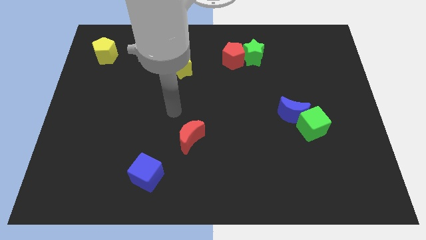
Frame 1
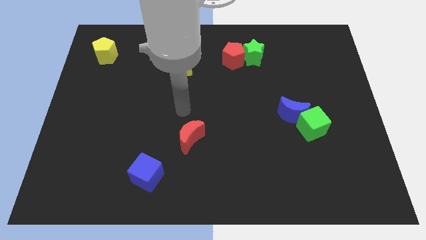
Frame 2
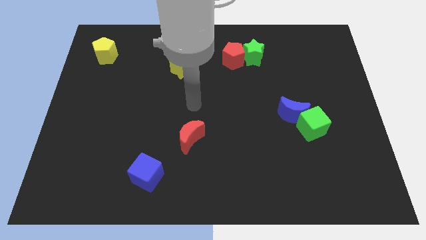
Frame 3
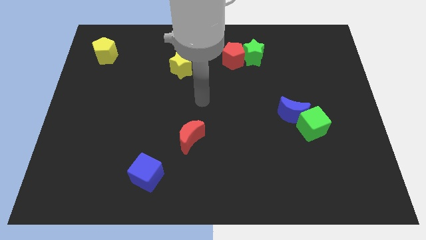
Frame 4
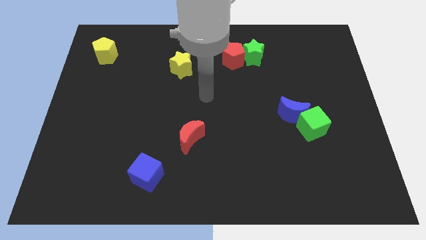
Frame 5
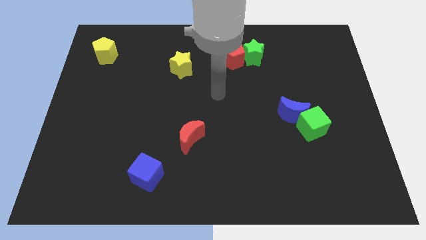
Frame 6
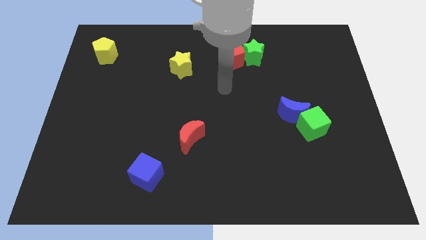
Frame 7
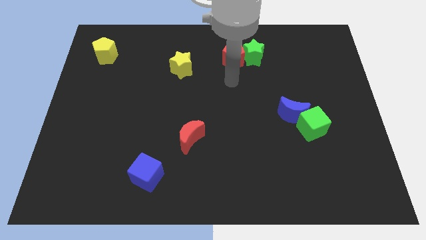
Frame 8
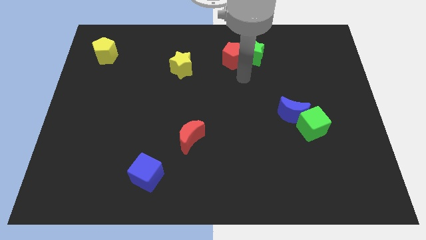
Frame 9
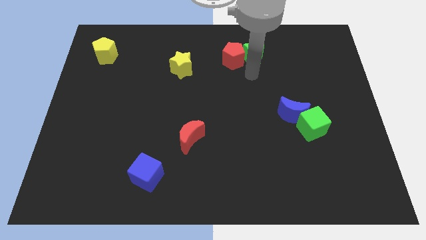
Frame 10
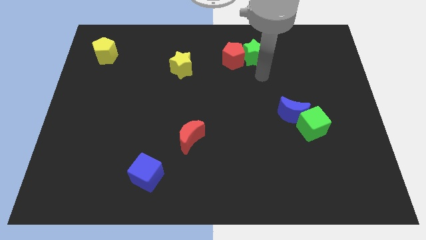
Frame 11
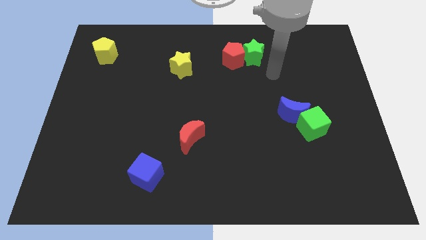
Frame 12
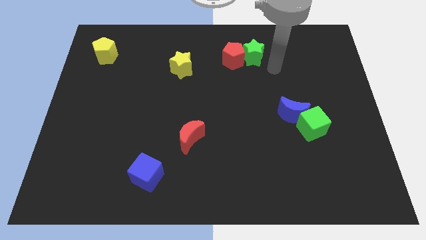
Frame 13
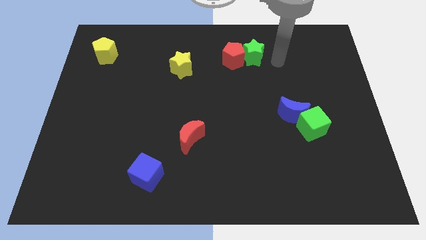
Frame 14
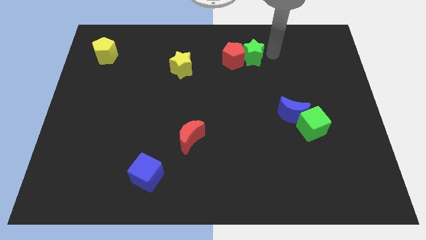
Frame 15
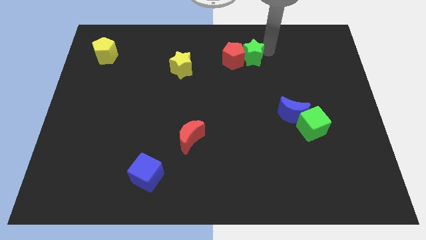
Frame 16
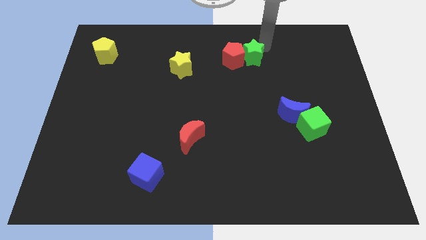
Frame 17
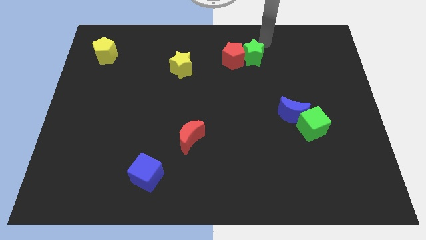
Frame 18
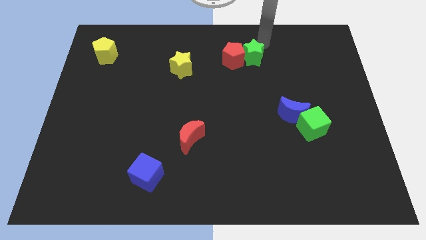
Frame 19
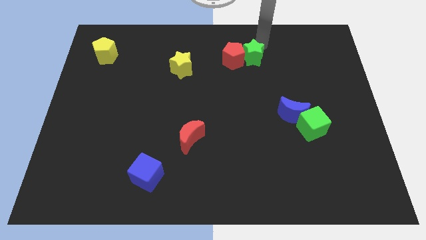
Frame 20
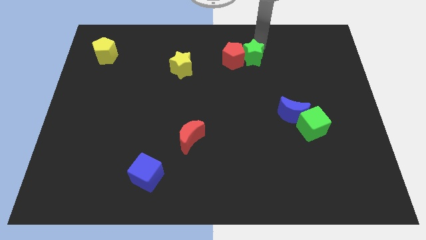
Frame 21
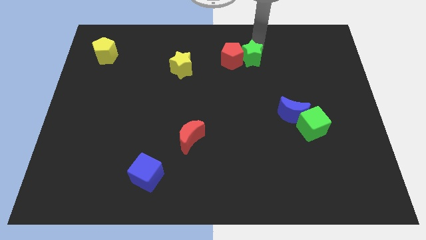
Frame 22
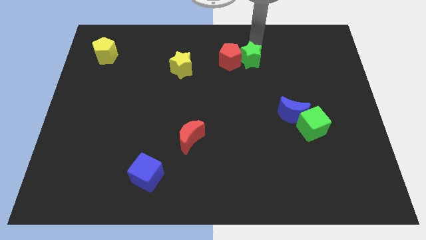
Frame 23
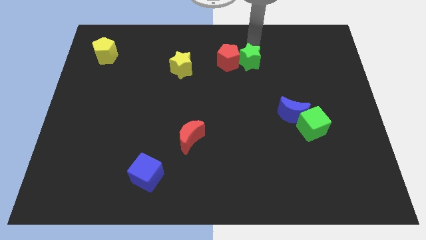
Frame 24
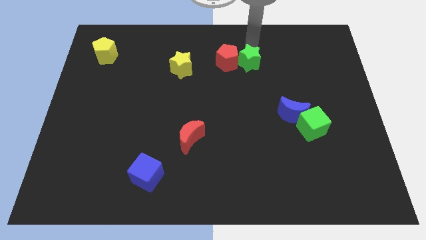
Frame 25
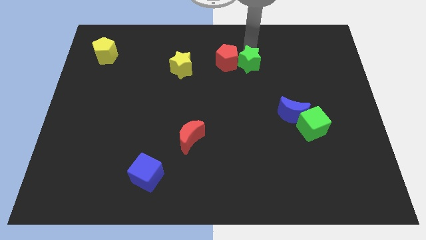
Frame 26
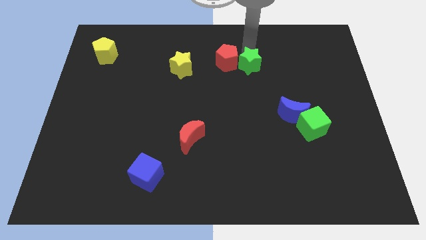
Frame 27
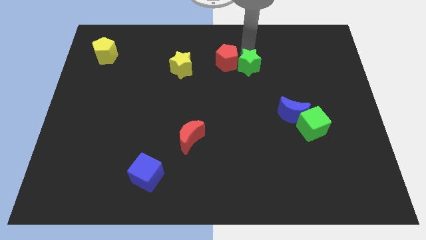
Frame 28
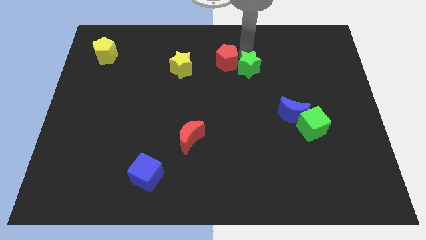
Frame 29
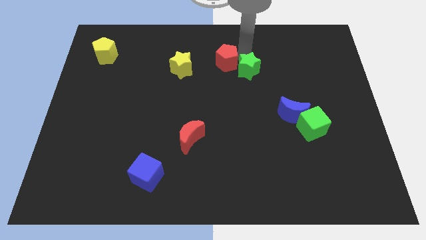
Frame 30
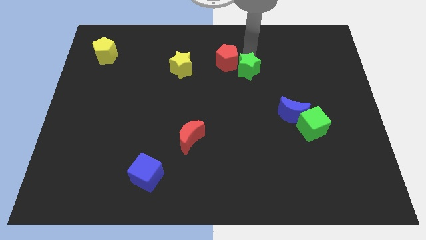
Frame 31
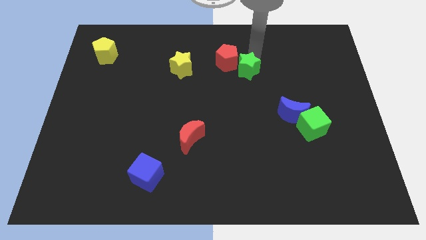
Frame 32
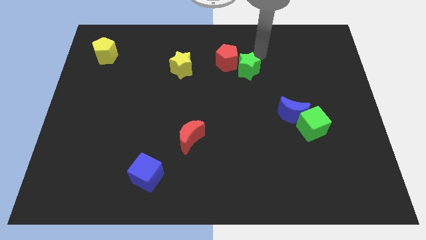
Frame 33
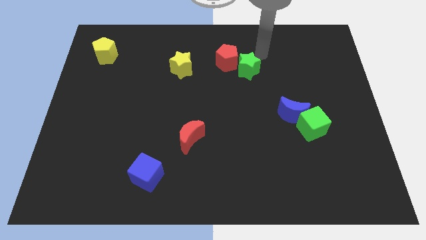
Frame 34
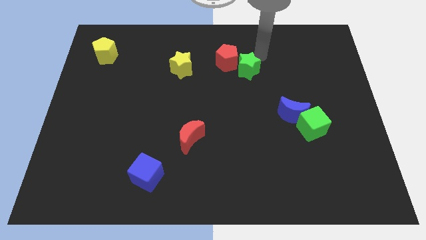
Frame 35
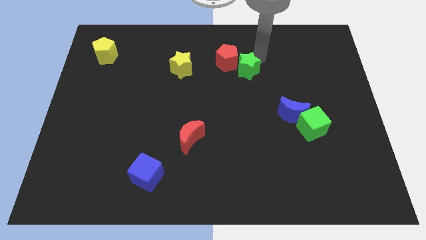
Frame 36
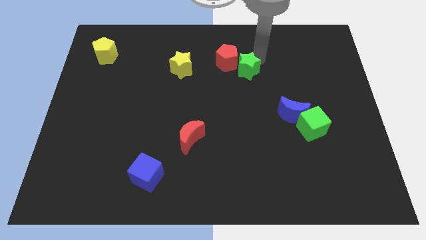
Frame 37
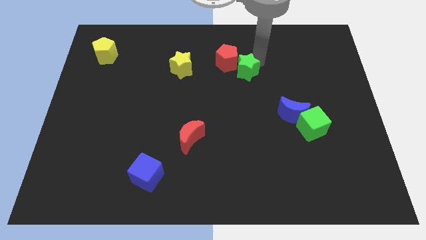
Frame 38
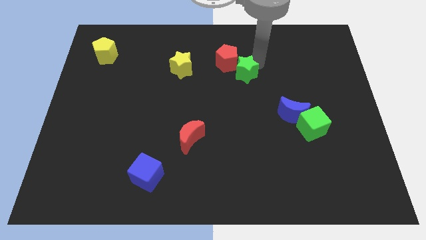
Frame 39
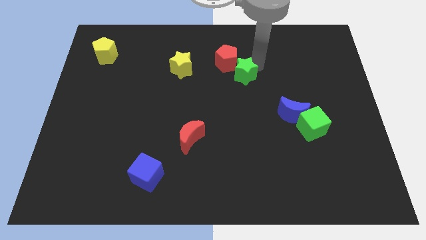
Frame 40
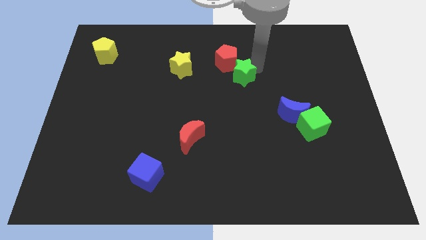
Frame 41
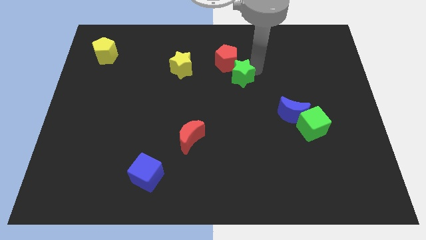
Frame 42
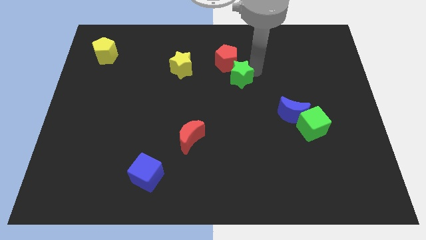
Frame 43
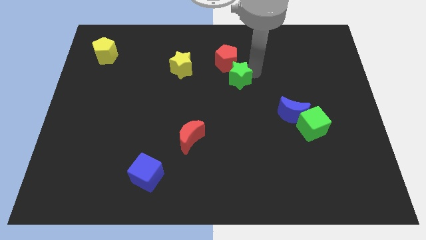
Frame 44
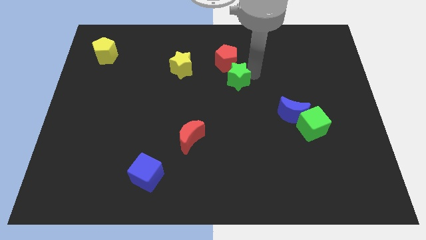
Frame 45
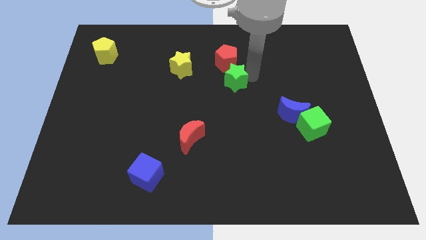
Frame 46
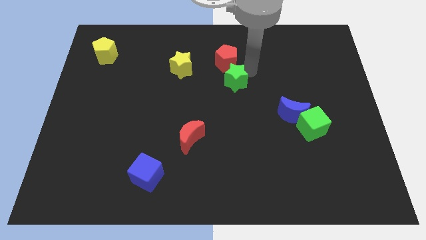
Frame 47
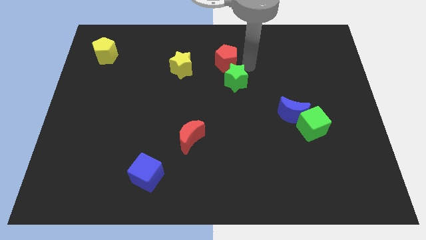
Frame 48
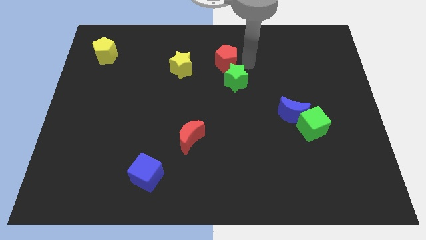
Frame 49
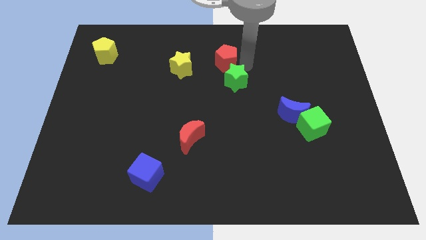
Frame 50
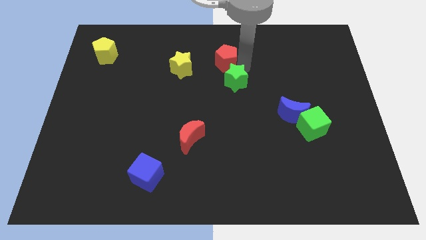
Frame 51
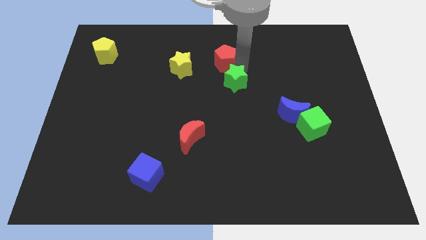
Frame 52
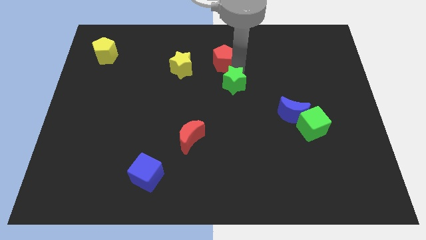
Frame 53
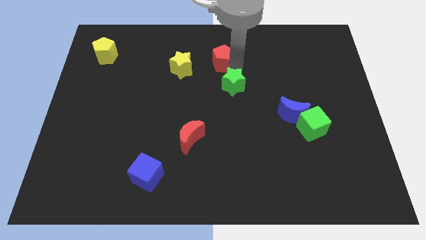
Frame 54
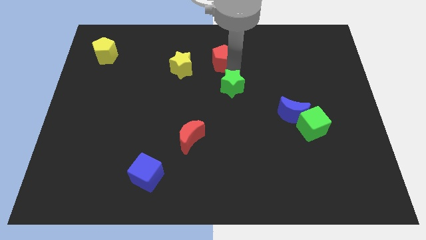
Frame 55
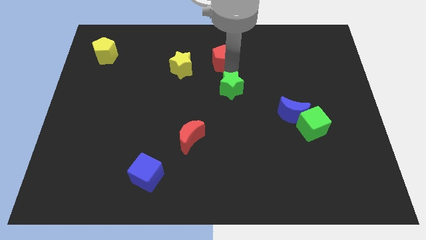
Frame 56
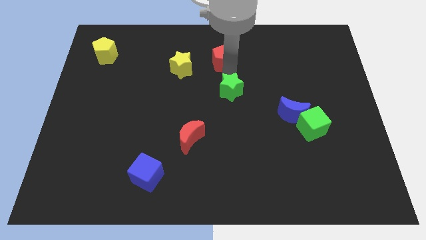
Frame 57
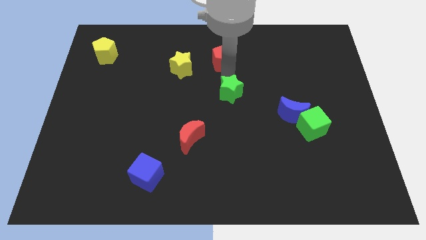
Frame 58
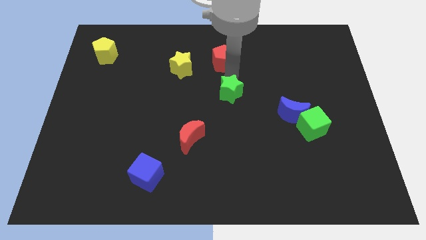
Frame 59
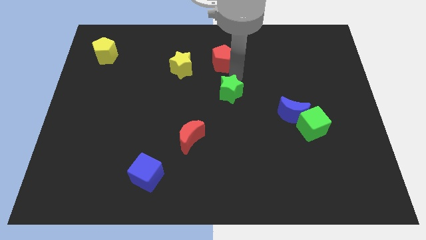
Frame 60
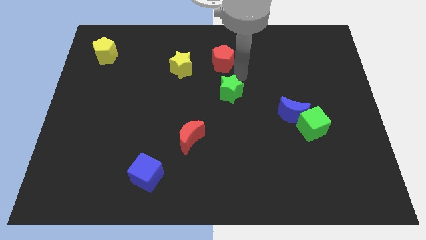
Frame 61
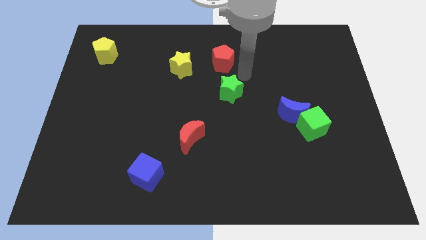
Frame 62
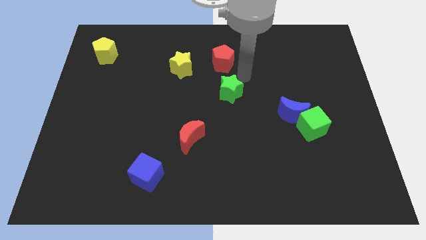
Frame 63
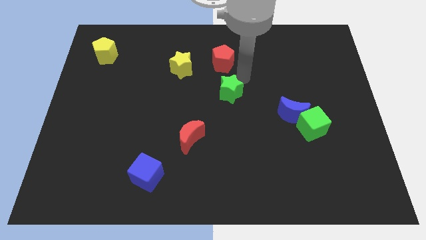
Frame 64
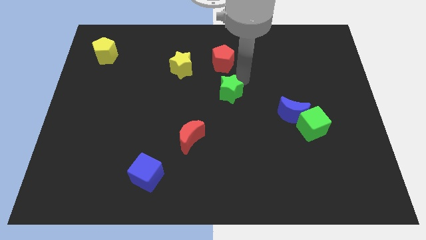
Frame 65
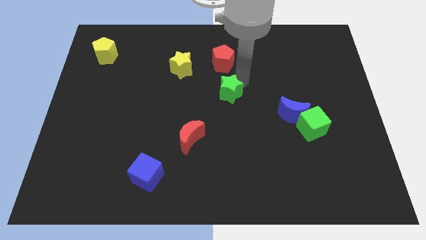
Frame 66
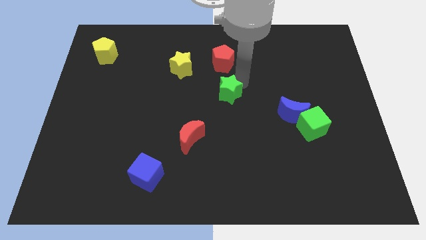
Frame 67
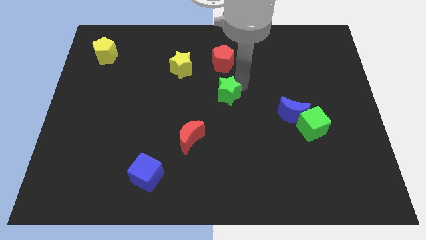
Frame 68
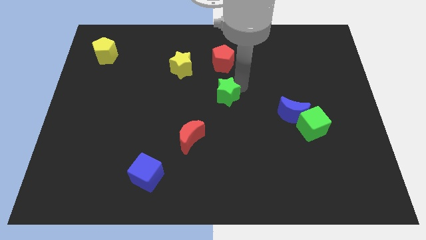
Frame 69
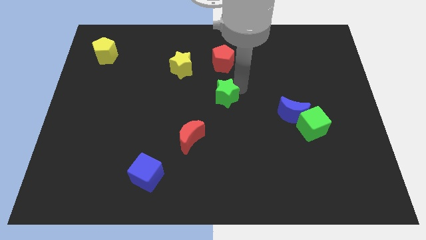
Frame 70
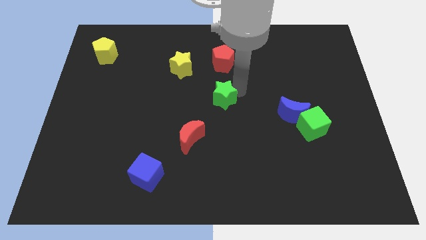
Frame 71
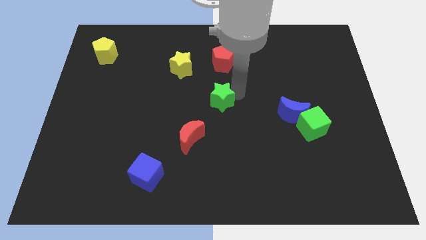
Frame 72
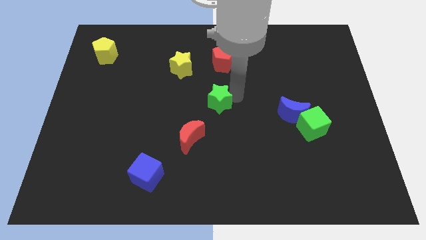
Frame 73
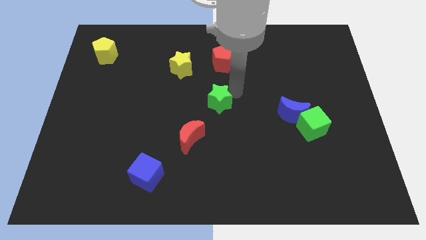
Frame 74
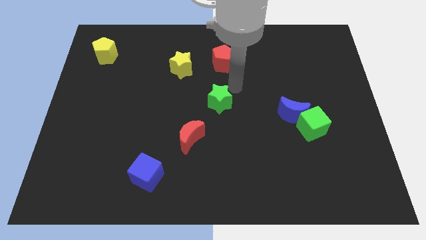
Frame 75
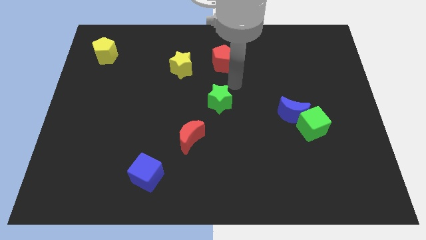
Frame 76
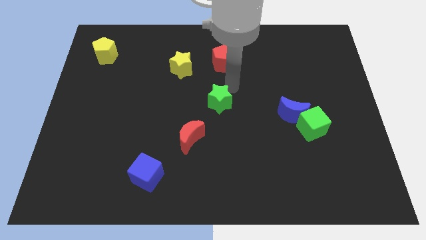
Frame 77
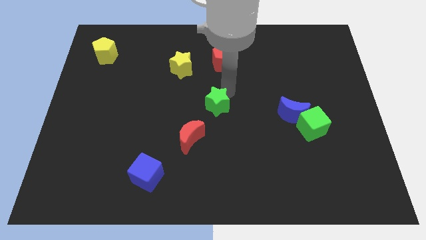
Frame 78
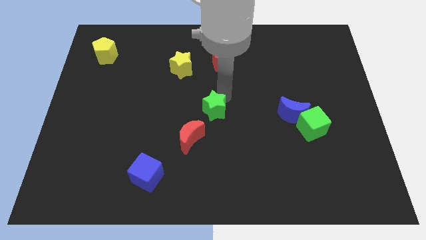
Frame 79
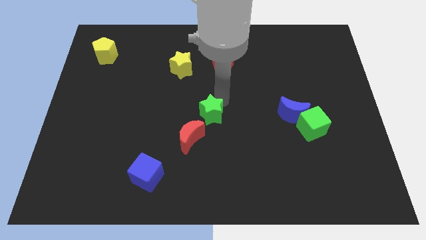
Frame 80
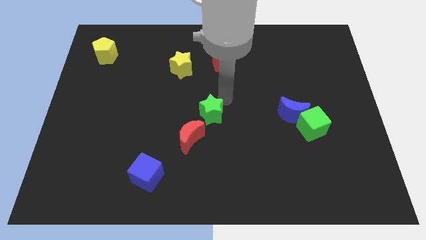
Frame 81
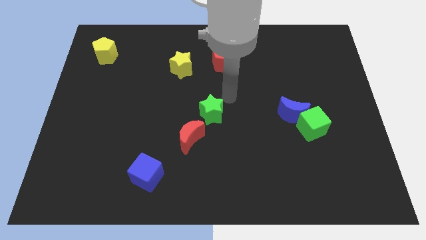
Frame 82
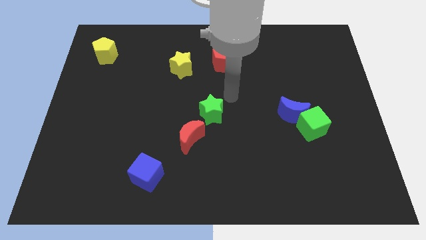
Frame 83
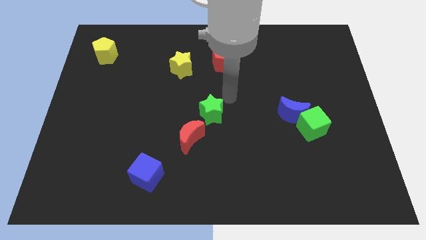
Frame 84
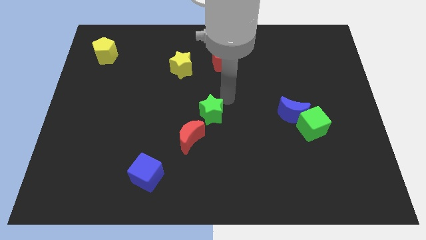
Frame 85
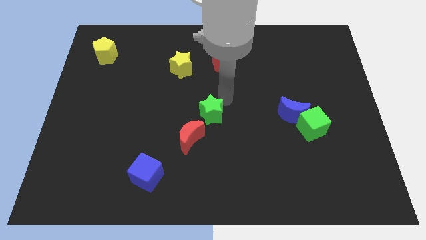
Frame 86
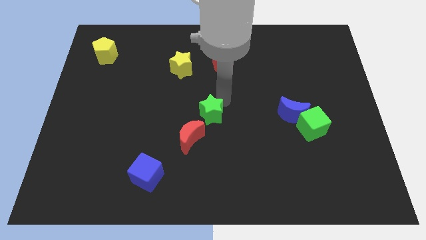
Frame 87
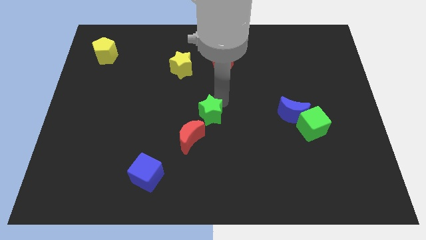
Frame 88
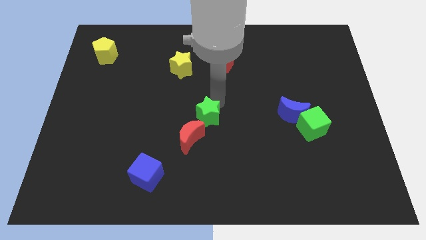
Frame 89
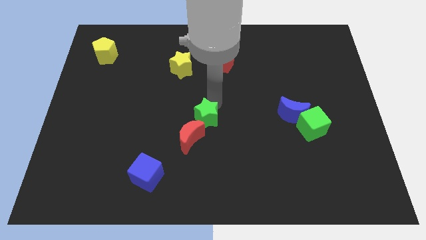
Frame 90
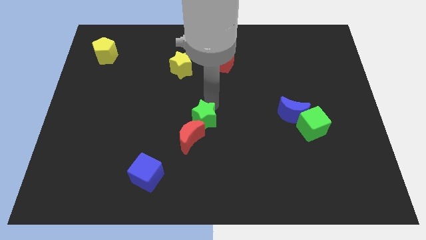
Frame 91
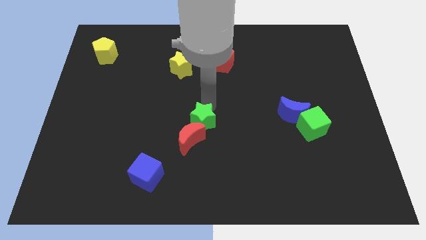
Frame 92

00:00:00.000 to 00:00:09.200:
move the green star close to the red moon
